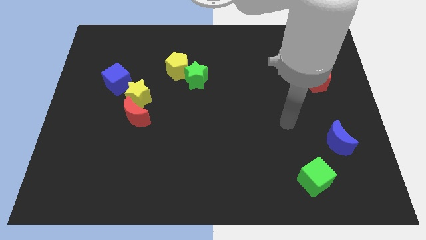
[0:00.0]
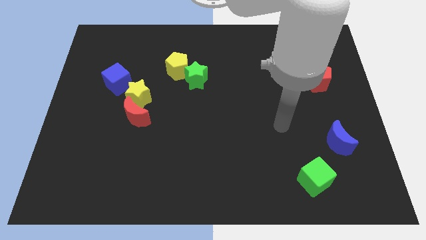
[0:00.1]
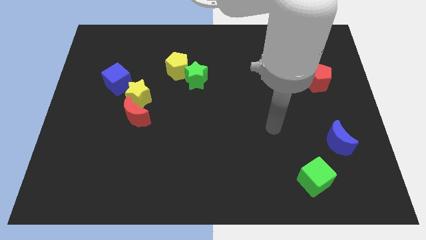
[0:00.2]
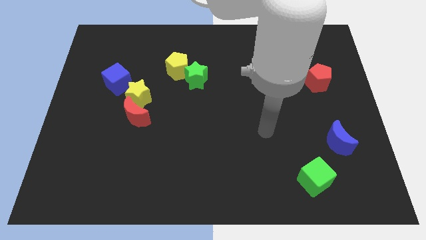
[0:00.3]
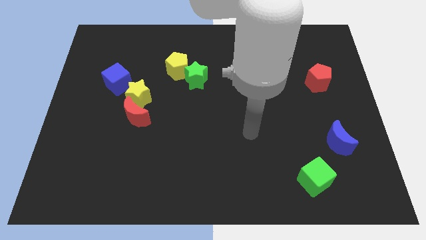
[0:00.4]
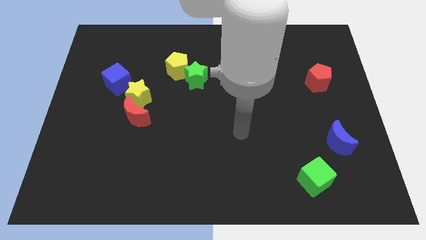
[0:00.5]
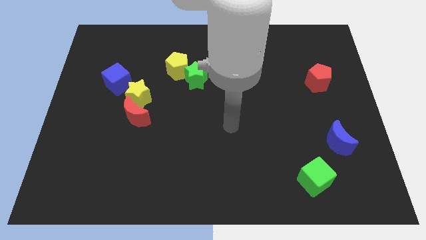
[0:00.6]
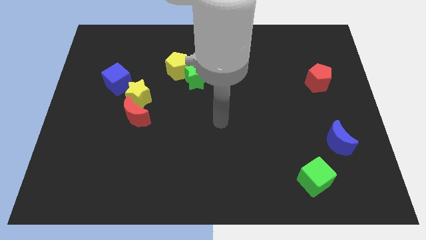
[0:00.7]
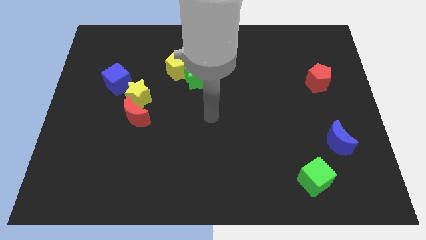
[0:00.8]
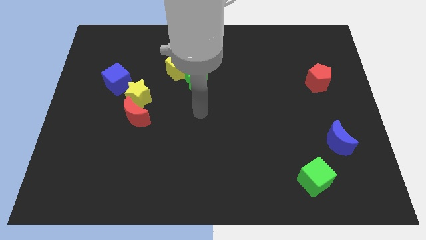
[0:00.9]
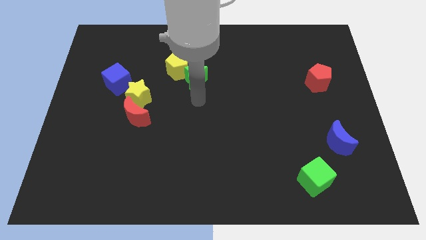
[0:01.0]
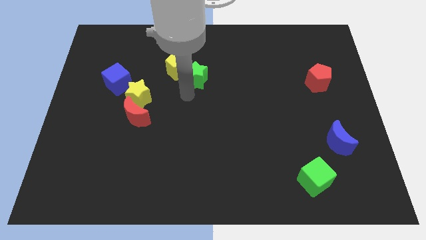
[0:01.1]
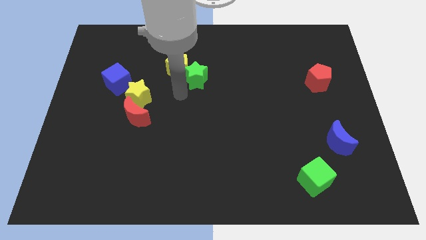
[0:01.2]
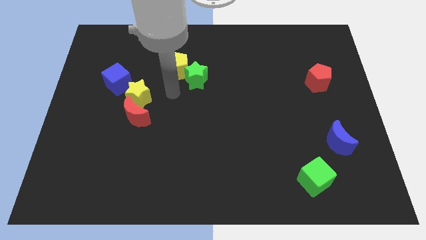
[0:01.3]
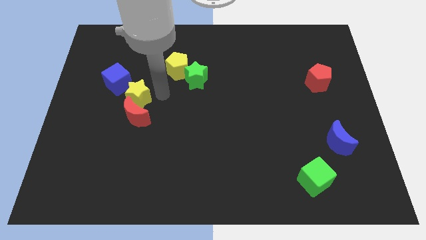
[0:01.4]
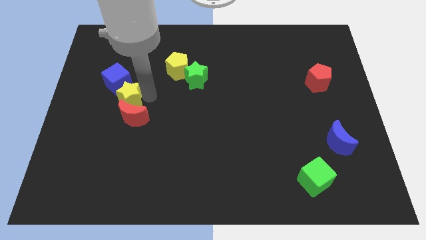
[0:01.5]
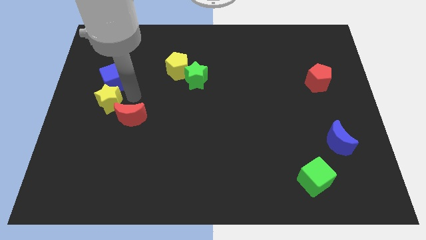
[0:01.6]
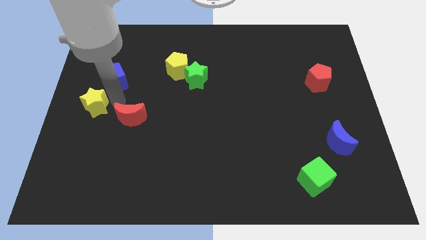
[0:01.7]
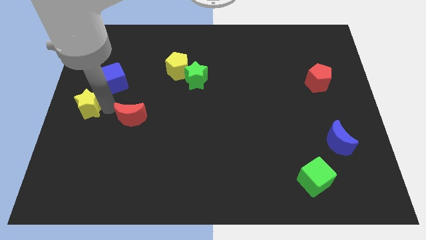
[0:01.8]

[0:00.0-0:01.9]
pull the red moon apart from the yellow star

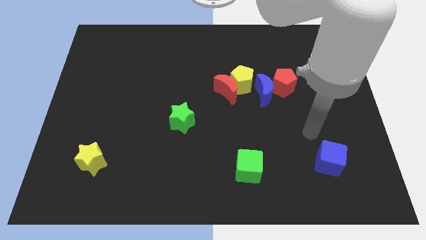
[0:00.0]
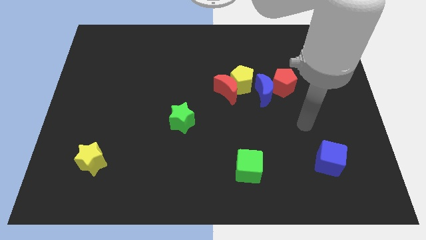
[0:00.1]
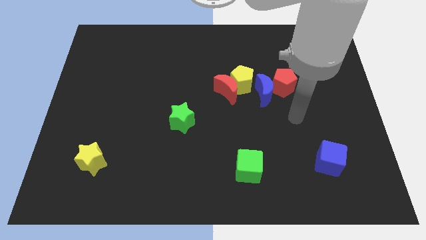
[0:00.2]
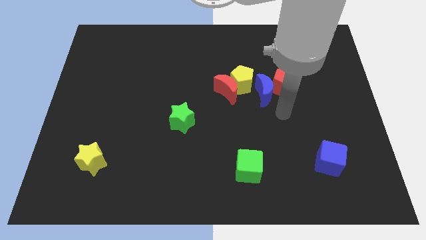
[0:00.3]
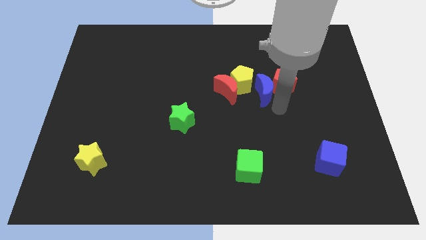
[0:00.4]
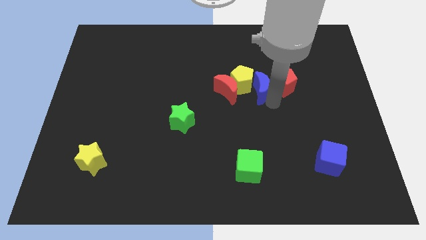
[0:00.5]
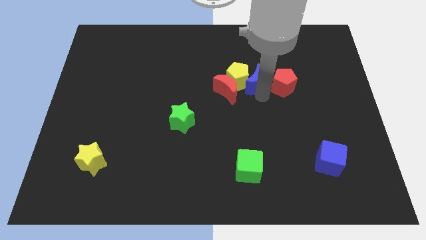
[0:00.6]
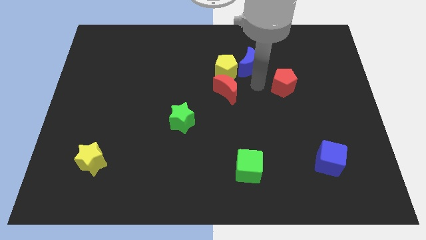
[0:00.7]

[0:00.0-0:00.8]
move the red pentagon away from the blue moon

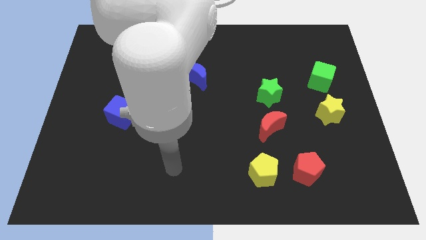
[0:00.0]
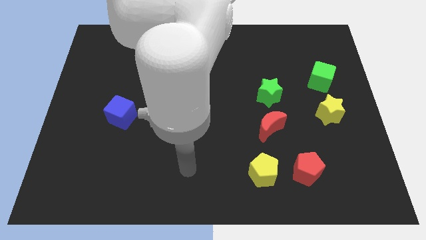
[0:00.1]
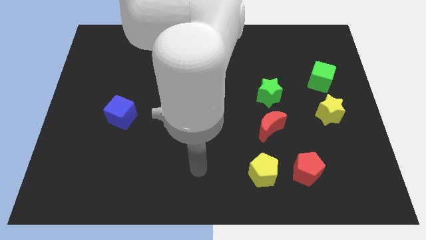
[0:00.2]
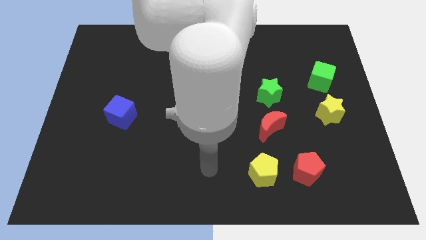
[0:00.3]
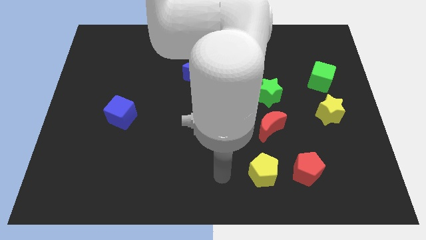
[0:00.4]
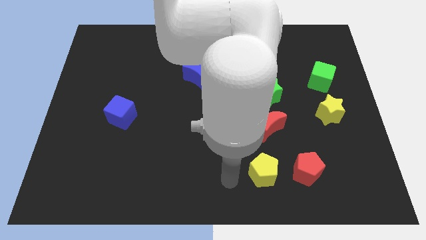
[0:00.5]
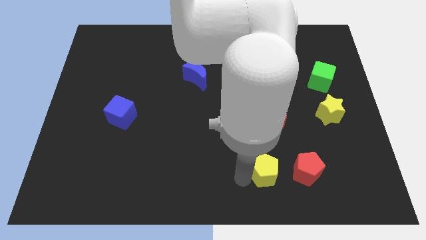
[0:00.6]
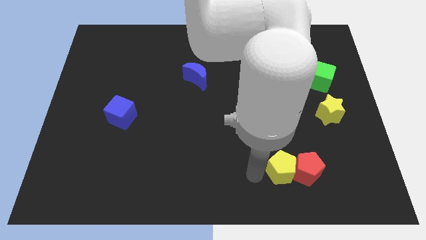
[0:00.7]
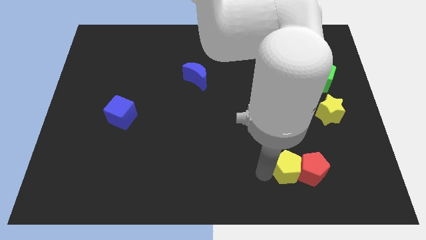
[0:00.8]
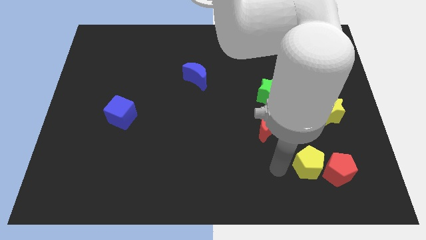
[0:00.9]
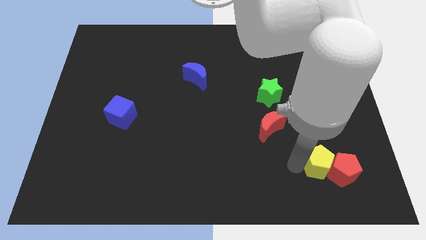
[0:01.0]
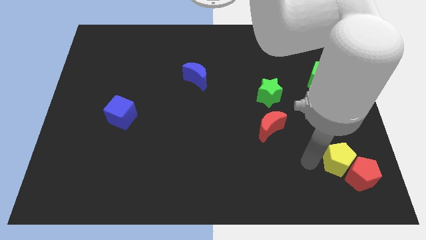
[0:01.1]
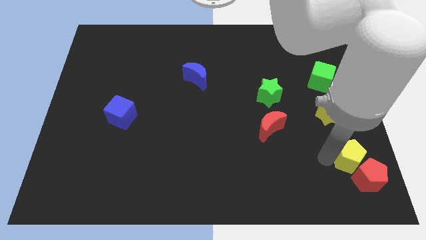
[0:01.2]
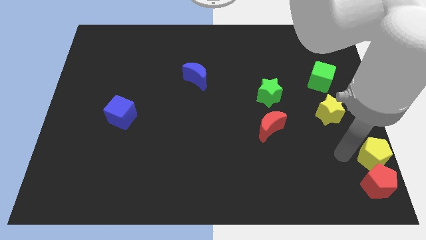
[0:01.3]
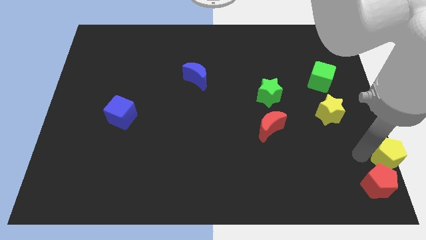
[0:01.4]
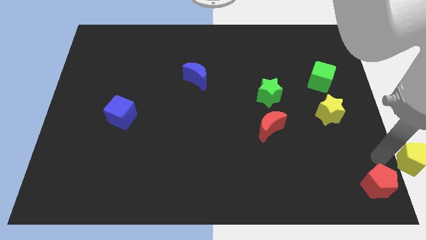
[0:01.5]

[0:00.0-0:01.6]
separate the red pentagon from the yellow pentagon

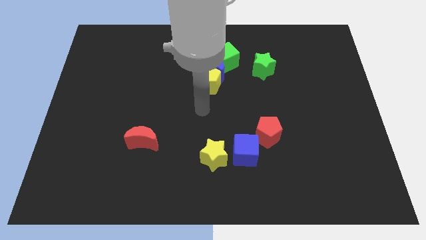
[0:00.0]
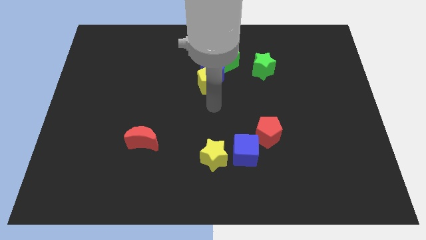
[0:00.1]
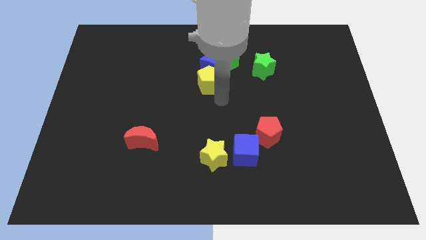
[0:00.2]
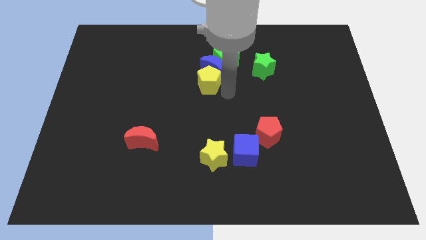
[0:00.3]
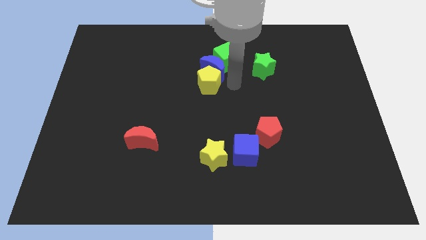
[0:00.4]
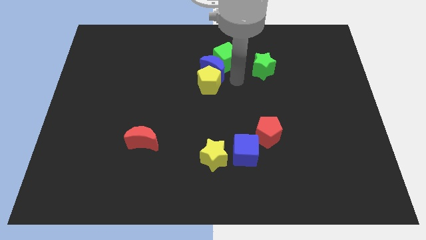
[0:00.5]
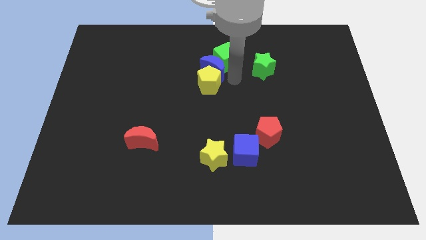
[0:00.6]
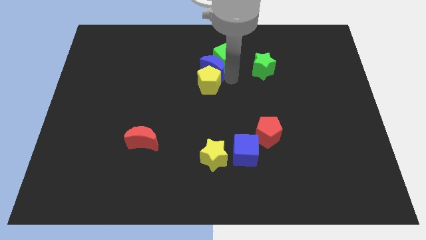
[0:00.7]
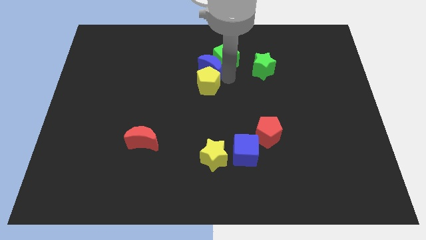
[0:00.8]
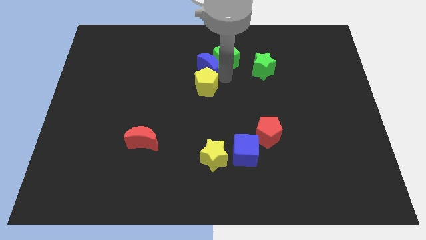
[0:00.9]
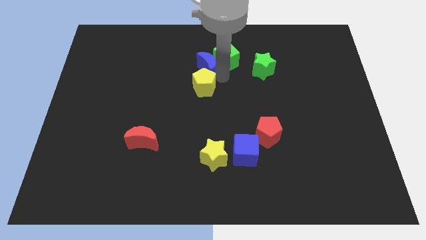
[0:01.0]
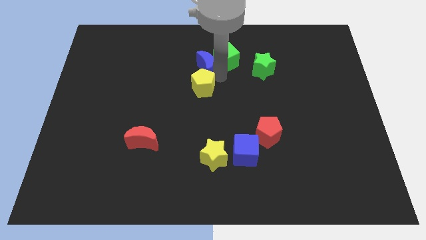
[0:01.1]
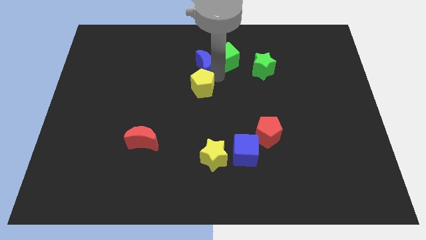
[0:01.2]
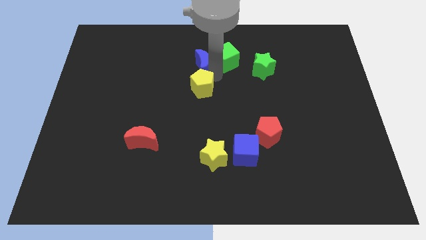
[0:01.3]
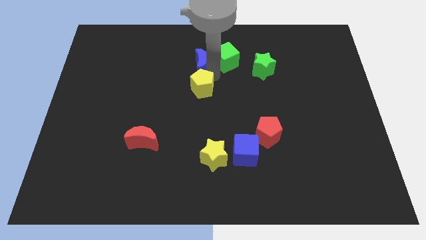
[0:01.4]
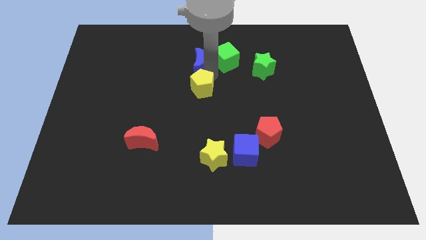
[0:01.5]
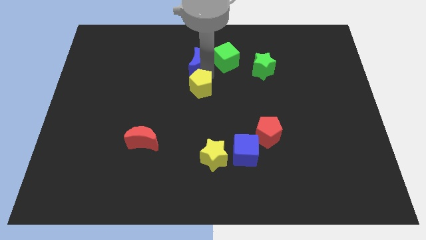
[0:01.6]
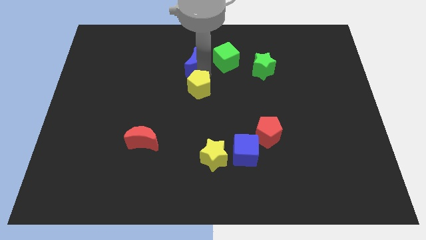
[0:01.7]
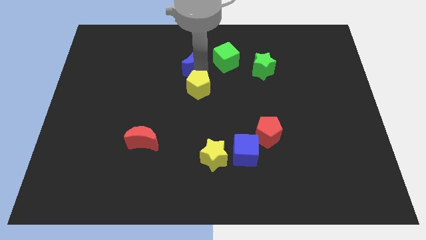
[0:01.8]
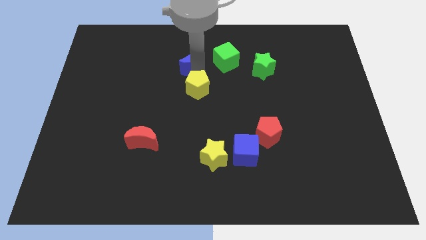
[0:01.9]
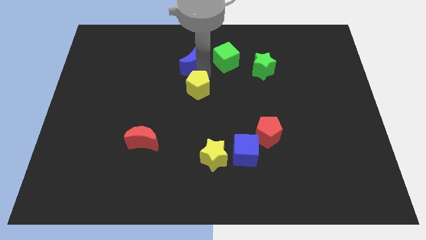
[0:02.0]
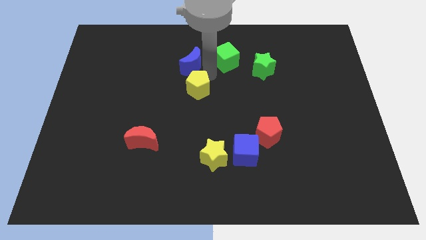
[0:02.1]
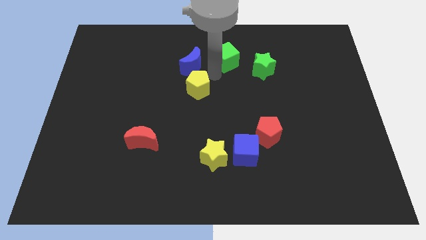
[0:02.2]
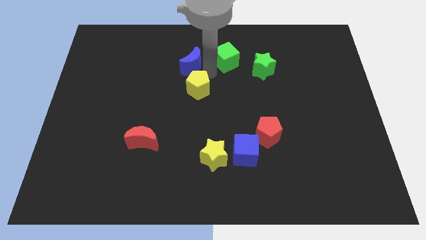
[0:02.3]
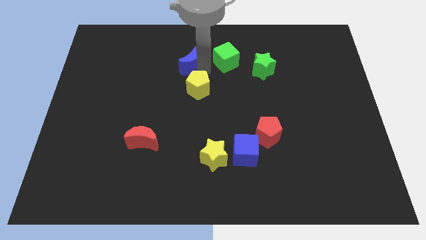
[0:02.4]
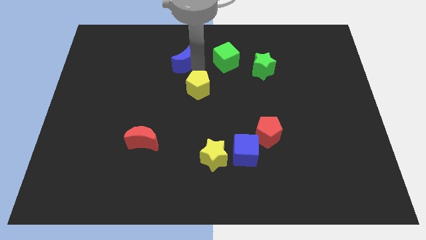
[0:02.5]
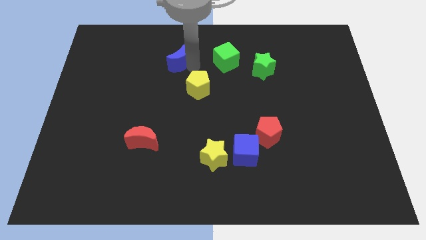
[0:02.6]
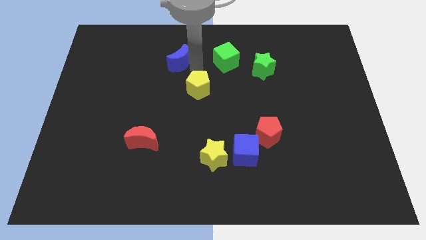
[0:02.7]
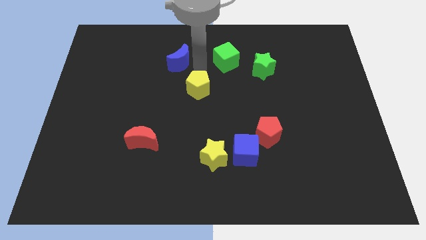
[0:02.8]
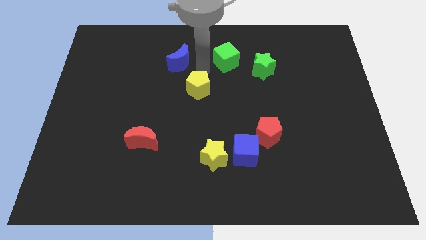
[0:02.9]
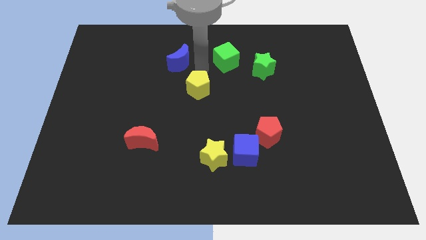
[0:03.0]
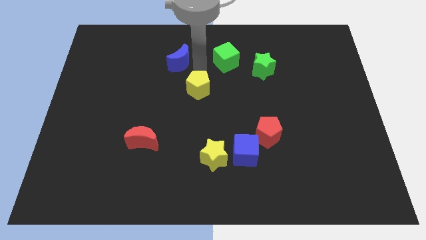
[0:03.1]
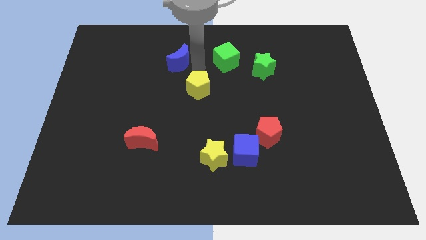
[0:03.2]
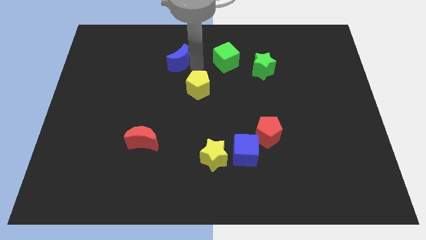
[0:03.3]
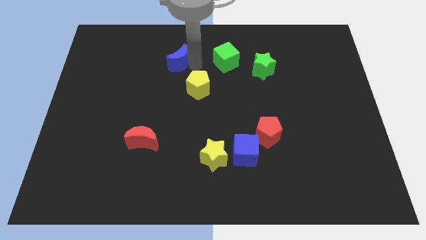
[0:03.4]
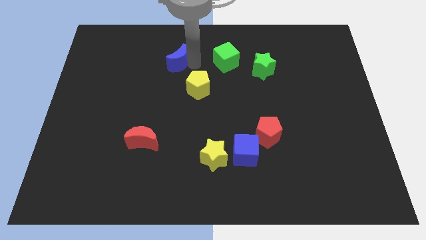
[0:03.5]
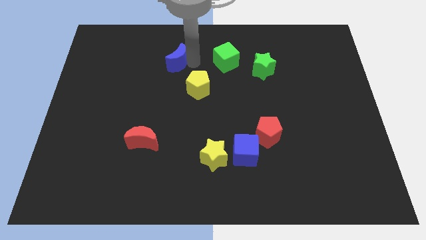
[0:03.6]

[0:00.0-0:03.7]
separate the blue moon from the green cube and yellow pentagon

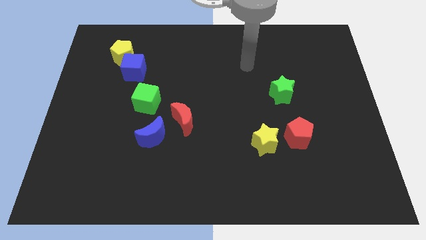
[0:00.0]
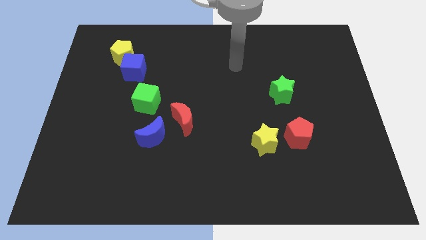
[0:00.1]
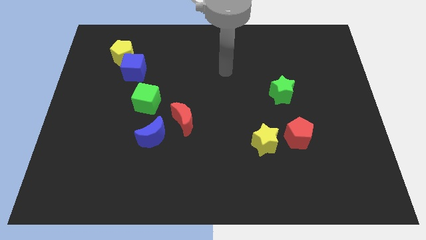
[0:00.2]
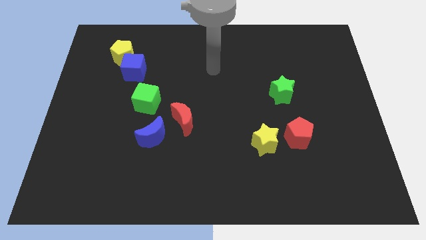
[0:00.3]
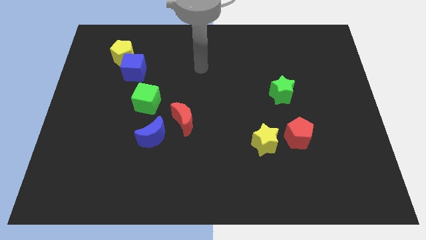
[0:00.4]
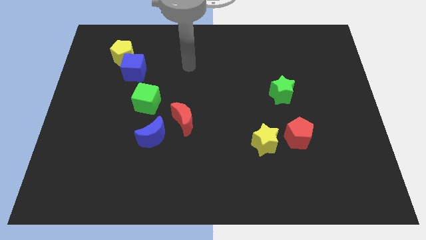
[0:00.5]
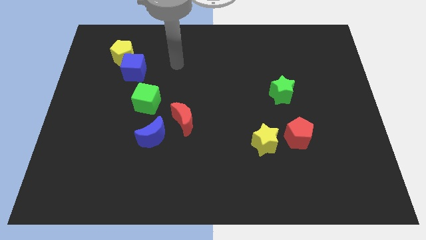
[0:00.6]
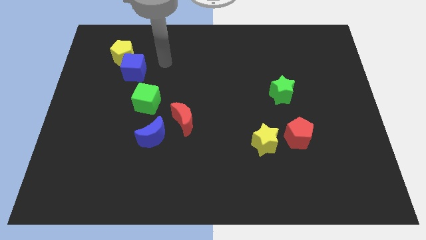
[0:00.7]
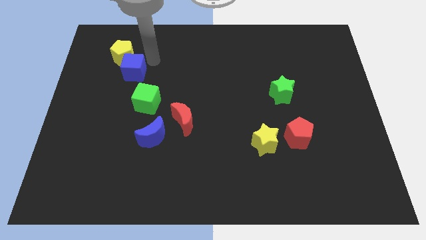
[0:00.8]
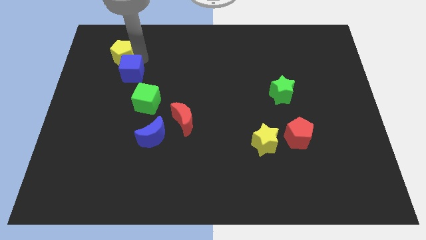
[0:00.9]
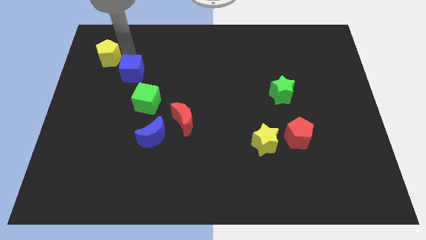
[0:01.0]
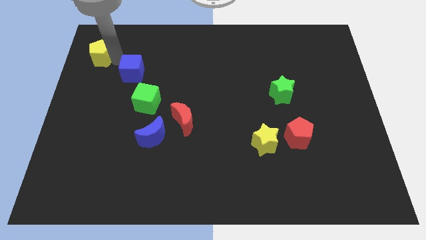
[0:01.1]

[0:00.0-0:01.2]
move the blue cube away from the yellow pentagon
